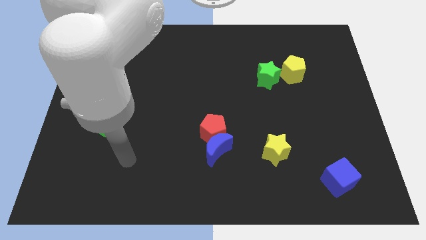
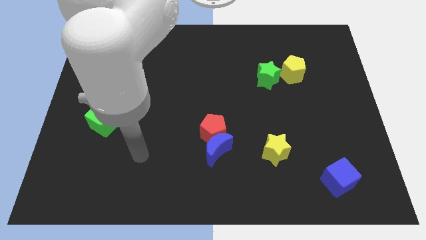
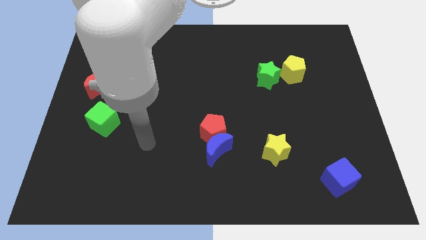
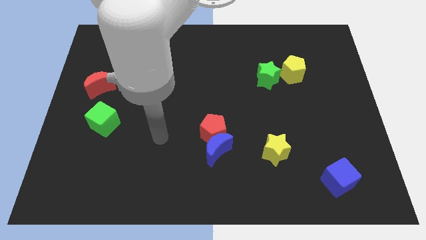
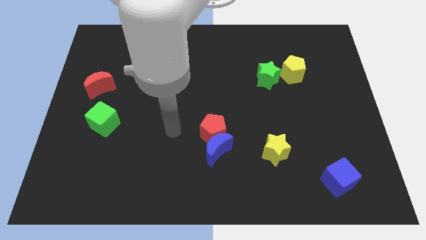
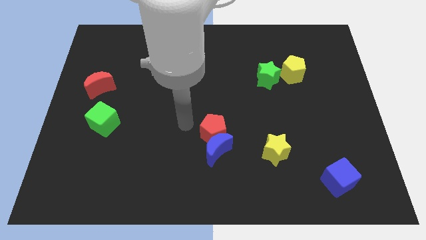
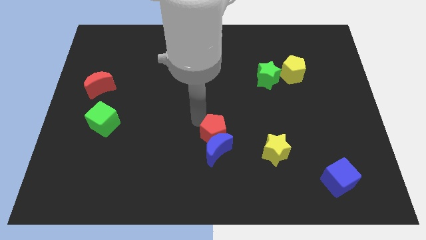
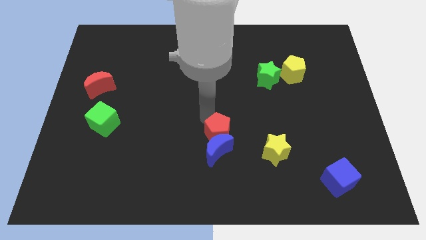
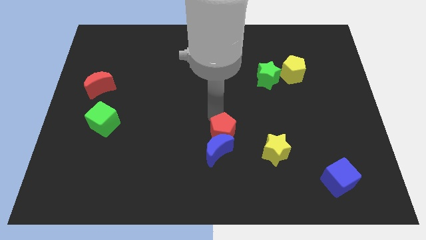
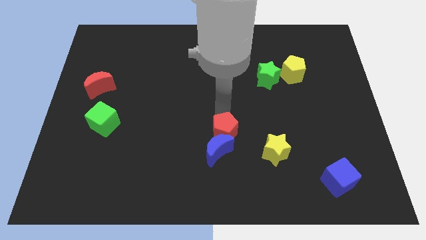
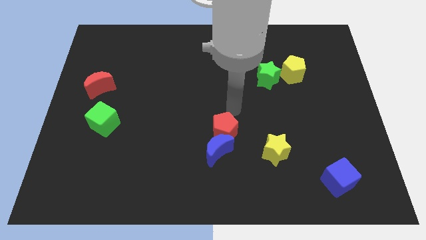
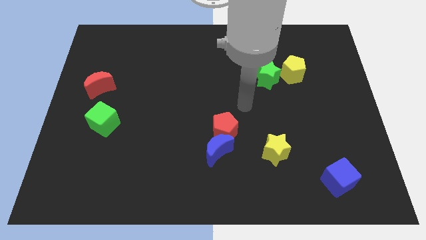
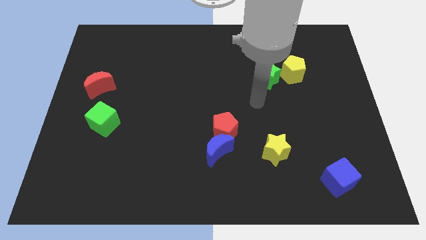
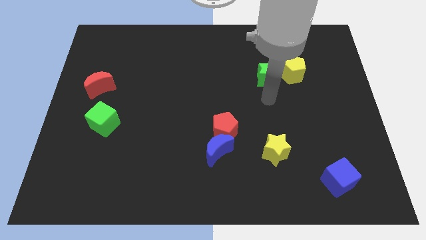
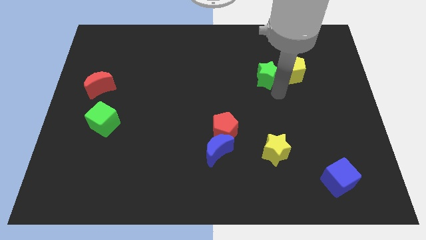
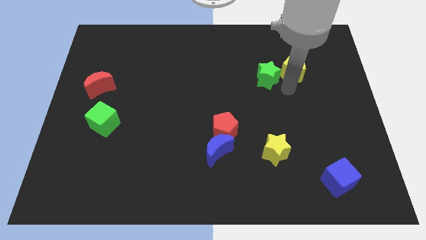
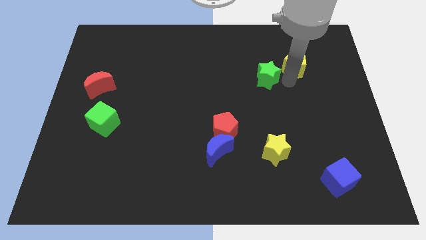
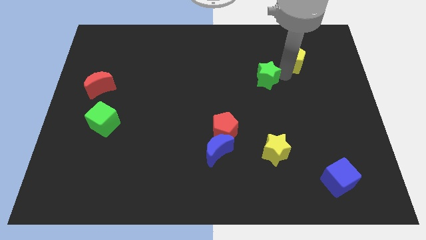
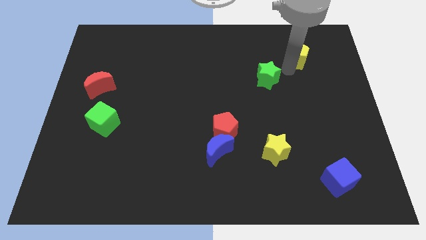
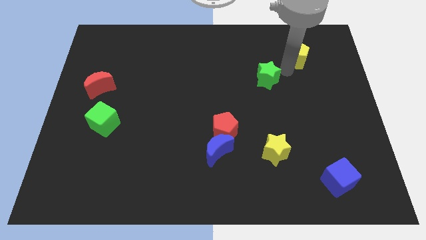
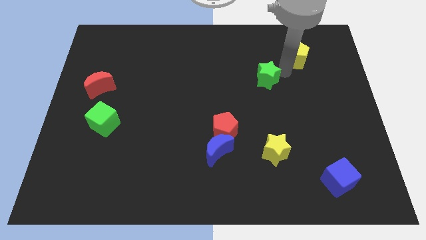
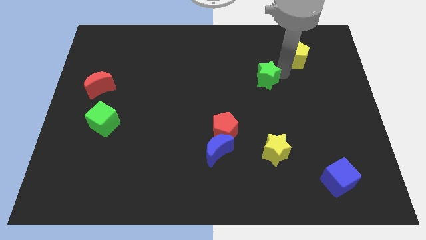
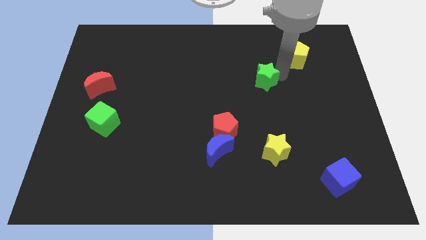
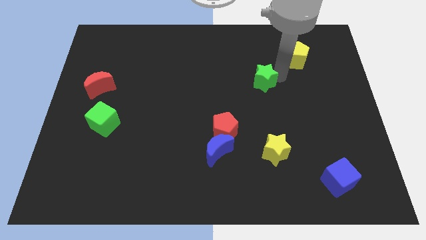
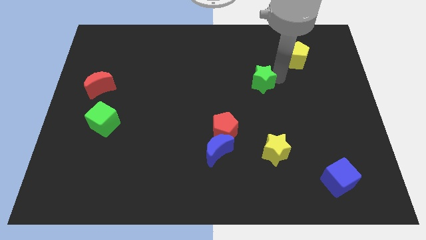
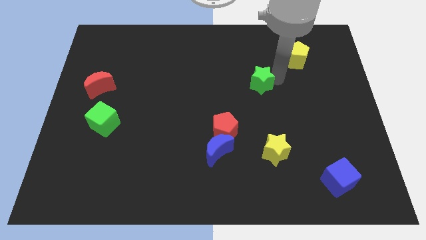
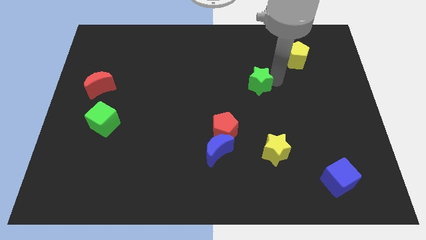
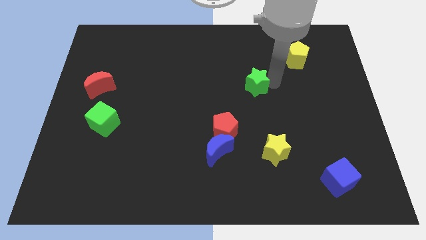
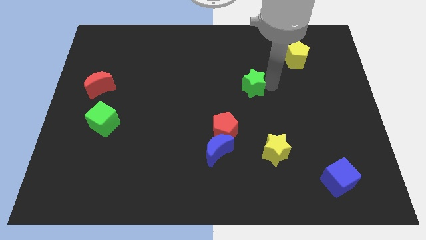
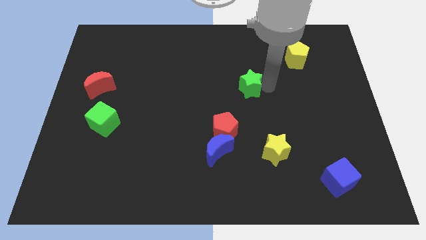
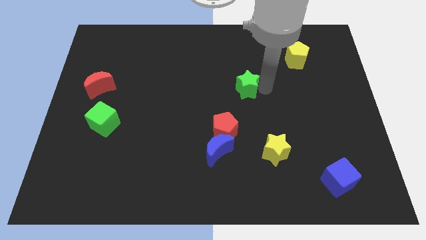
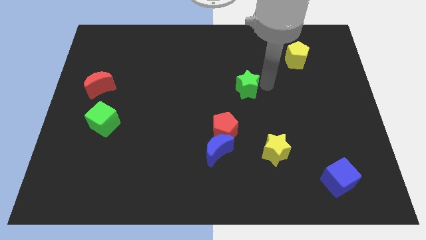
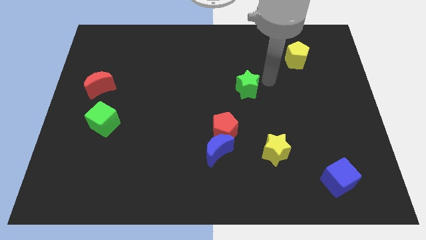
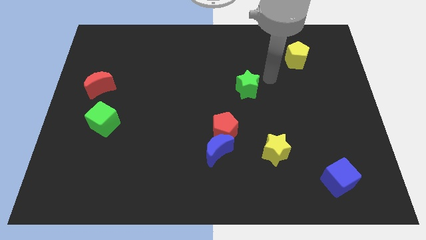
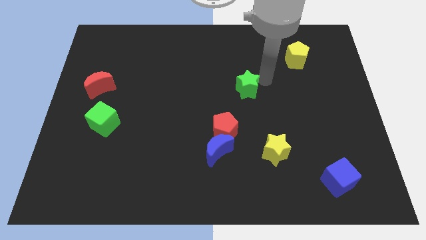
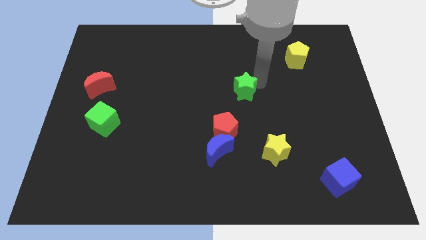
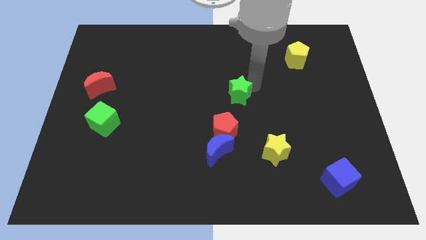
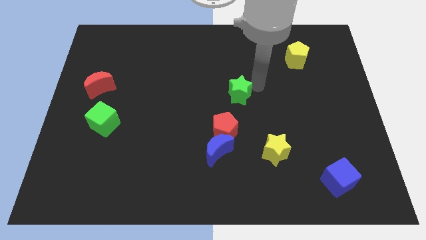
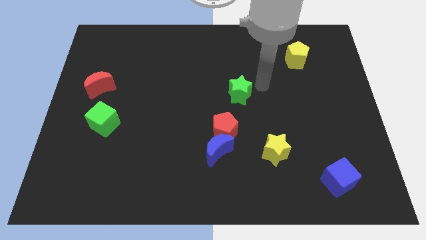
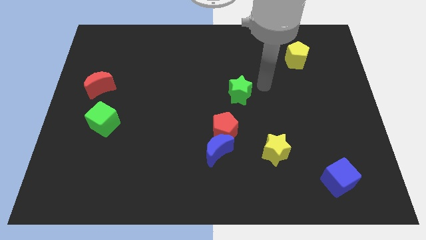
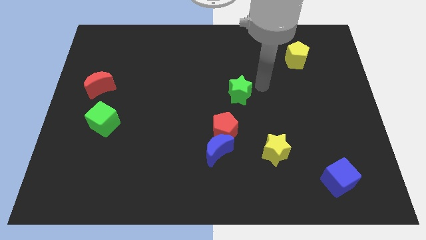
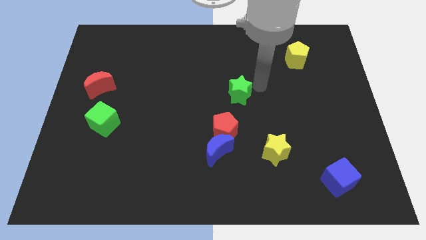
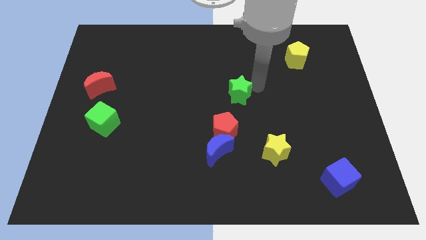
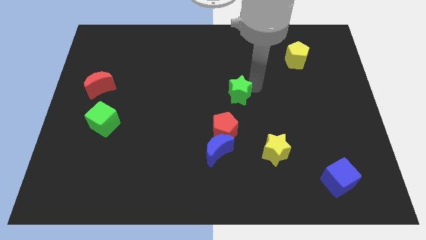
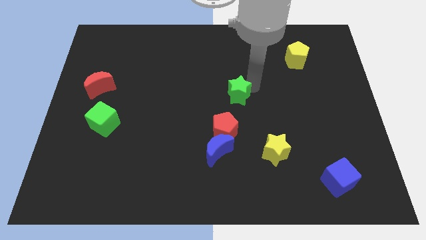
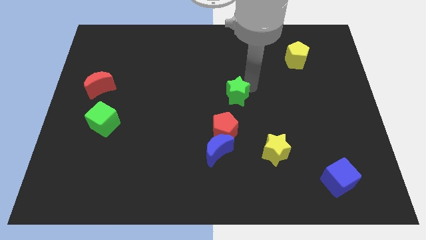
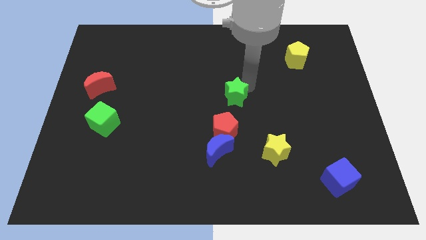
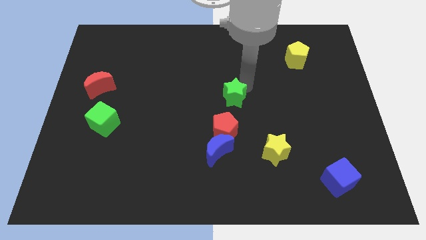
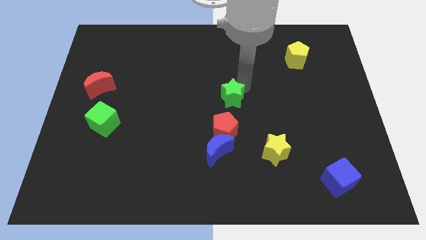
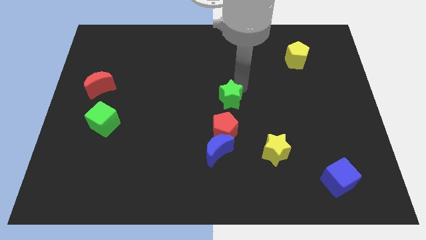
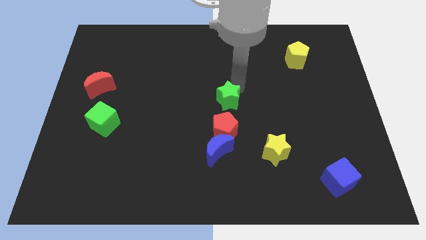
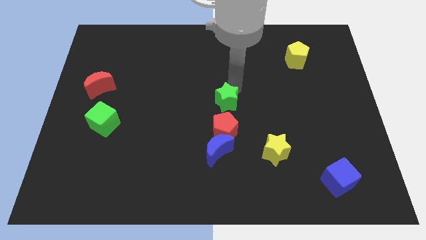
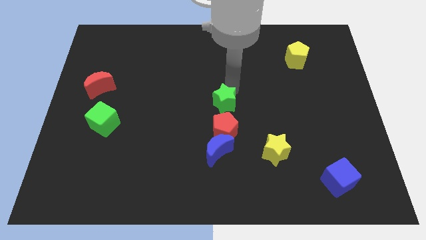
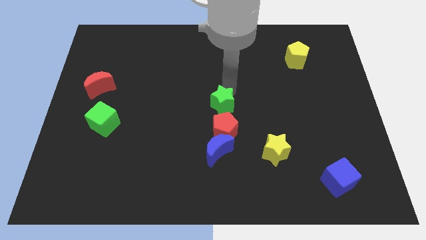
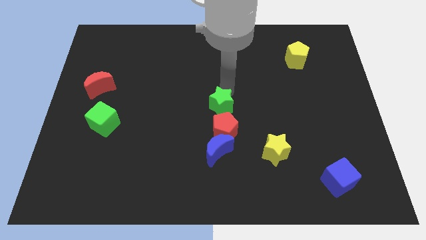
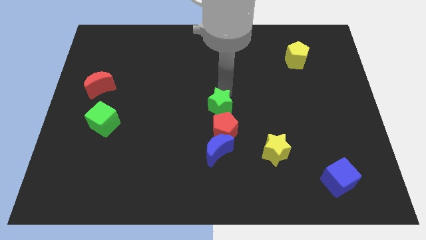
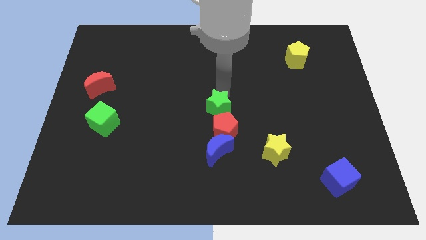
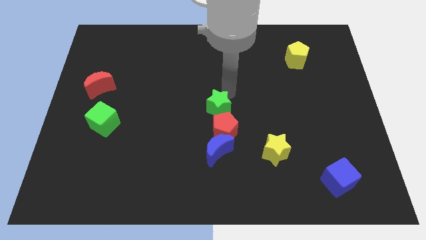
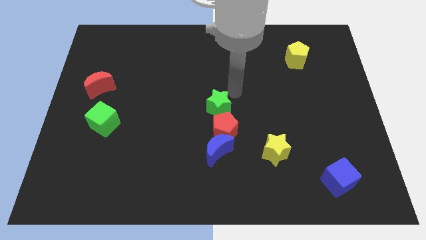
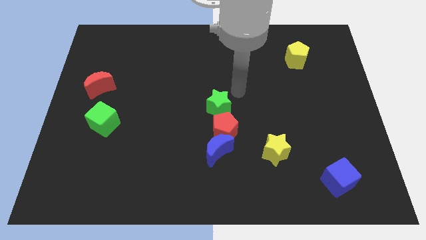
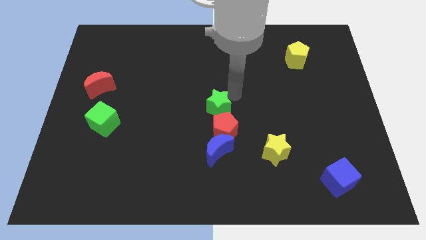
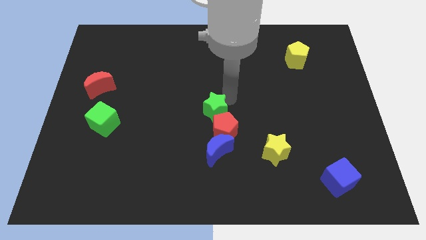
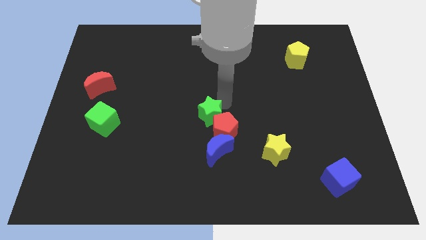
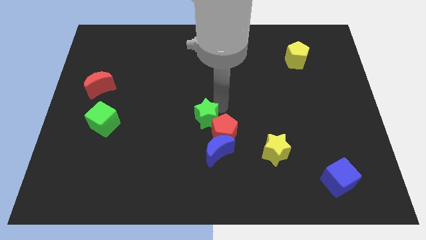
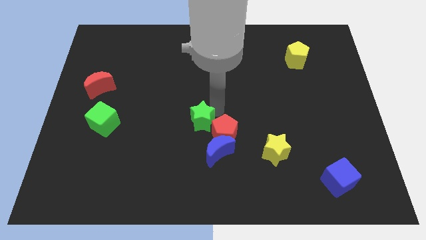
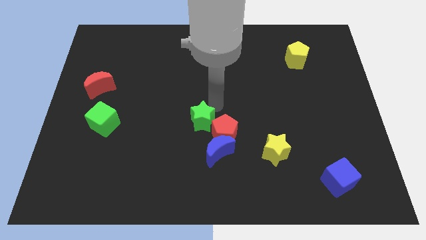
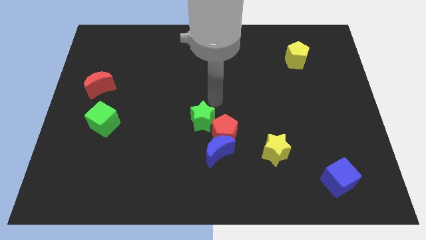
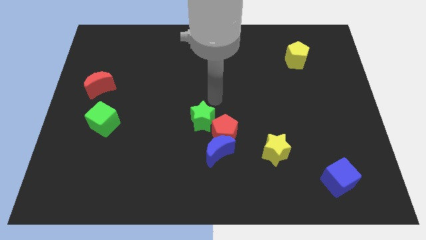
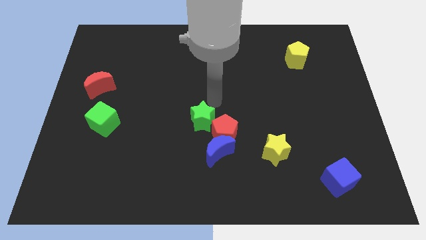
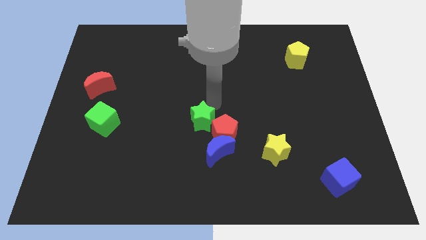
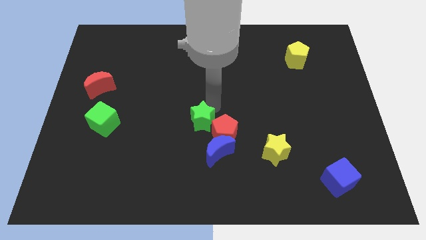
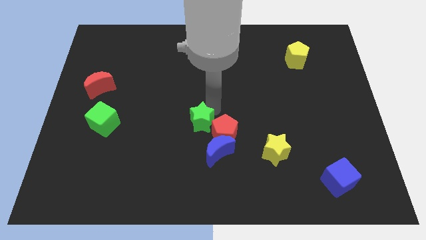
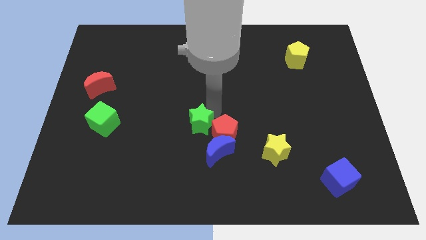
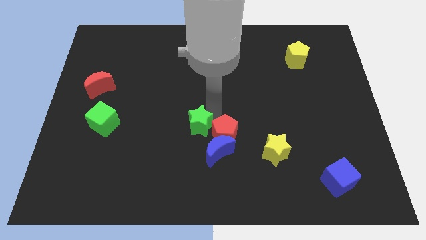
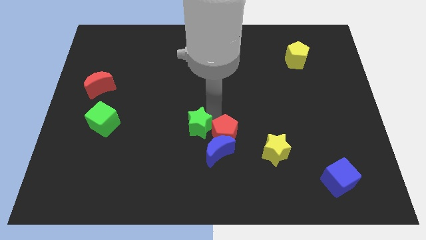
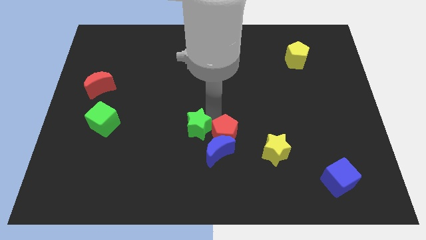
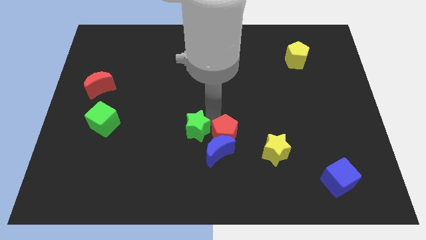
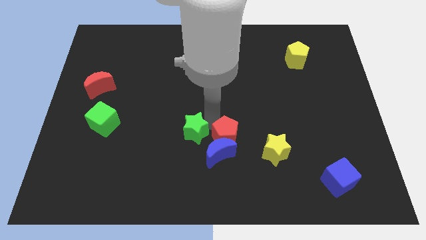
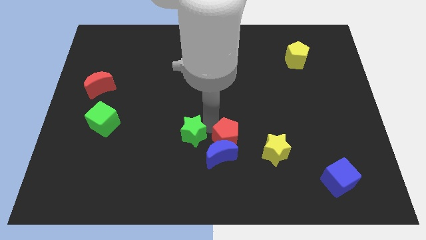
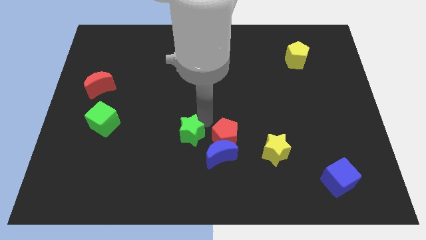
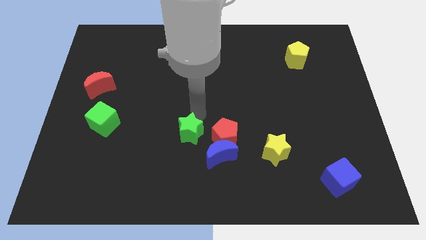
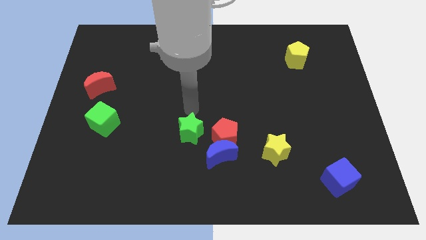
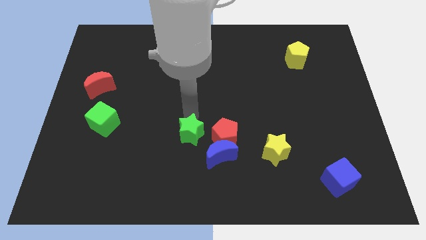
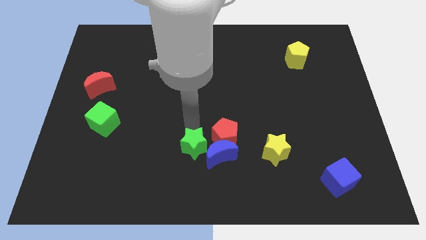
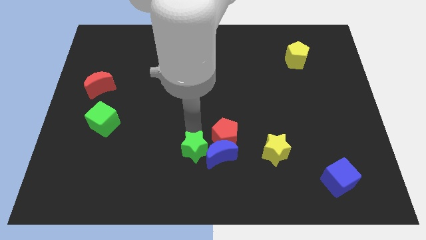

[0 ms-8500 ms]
put the green star to the bottom left side of the blue moon
